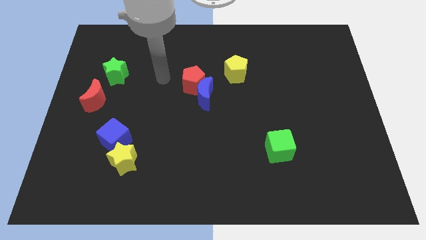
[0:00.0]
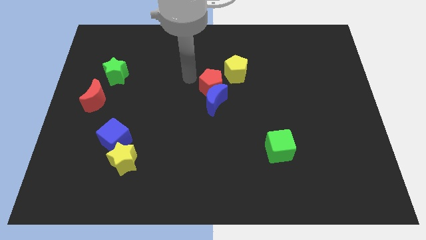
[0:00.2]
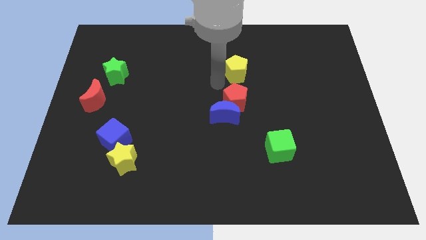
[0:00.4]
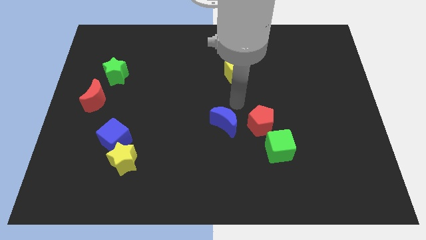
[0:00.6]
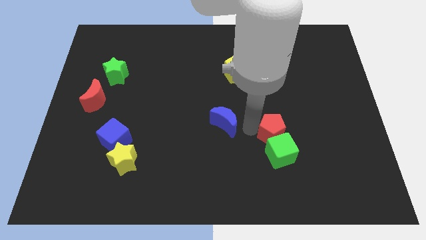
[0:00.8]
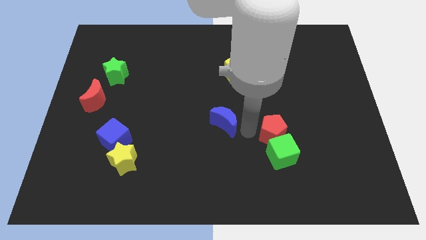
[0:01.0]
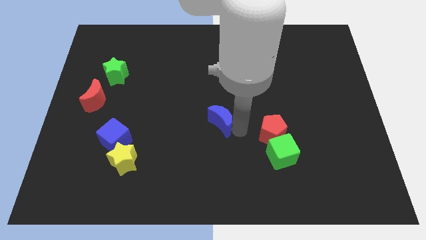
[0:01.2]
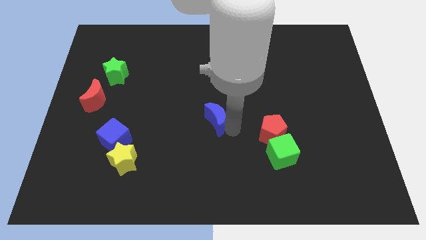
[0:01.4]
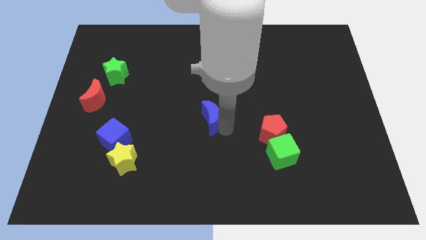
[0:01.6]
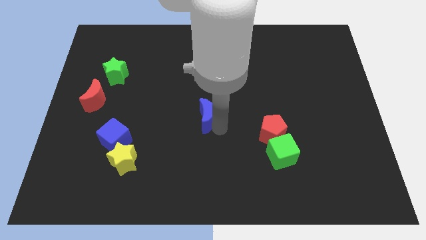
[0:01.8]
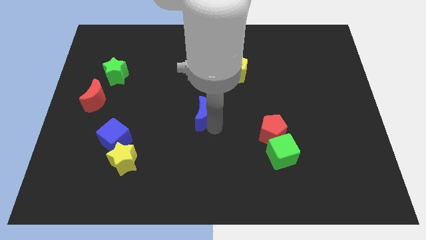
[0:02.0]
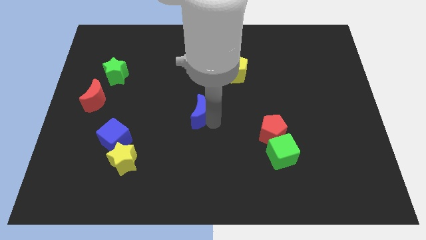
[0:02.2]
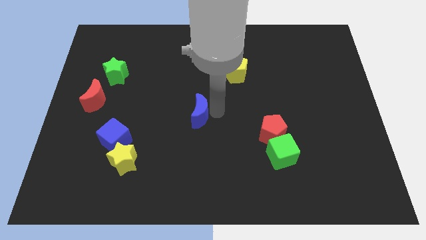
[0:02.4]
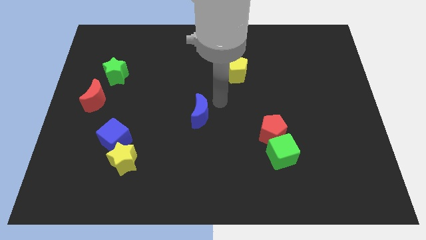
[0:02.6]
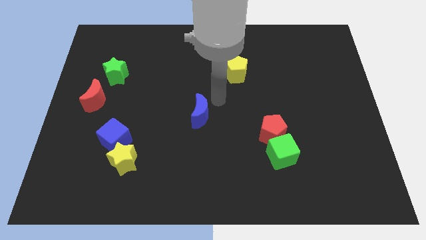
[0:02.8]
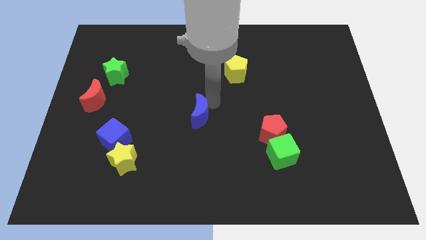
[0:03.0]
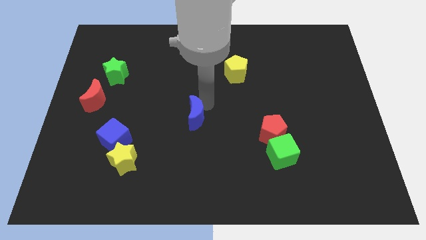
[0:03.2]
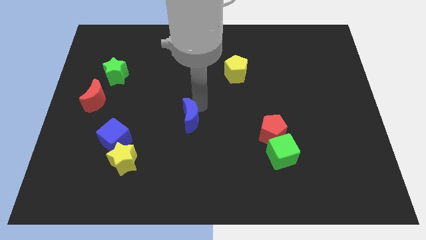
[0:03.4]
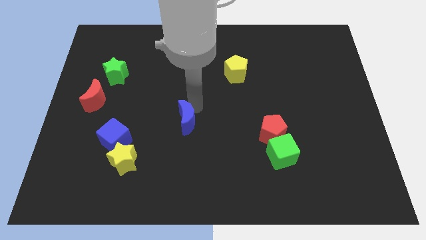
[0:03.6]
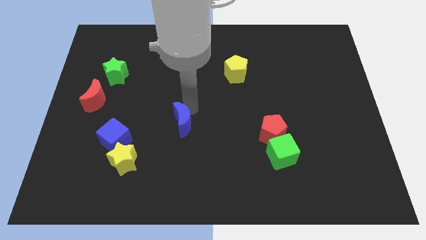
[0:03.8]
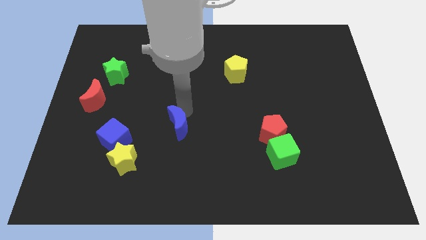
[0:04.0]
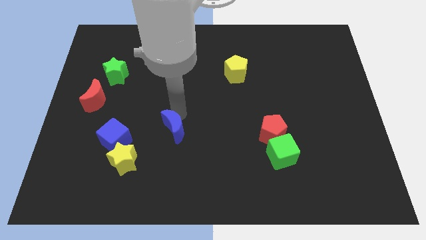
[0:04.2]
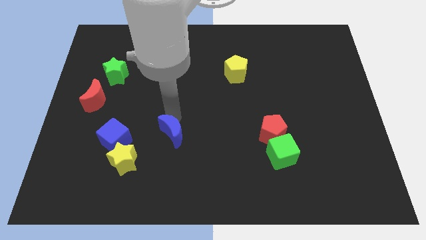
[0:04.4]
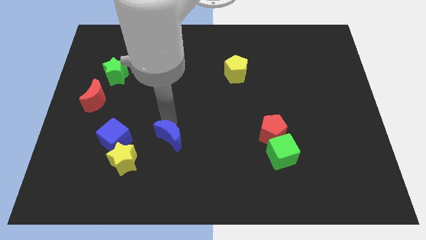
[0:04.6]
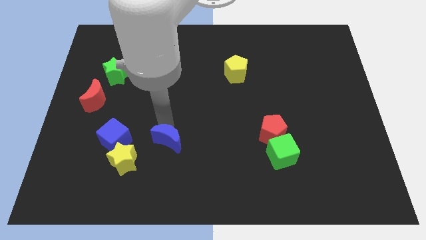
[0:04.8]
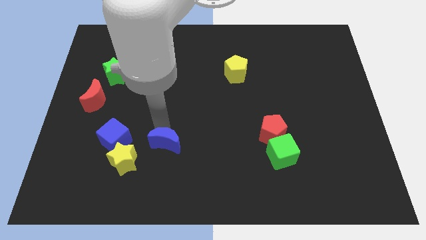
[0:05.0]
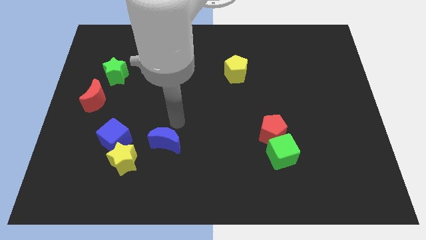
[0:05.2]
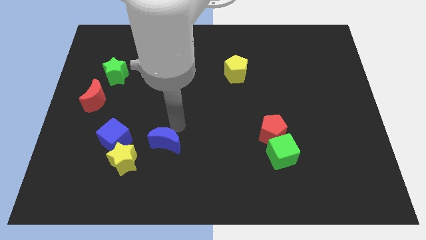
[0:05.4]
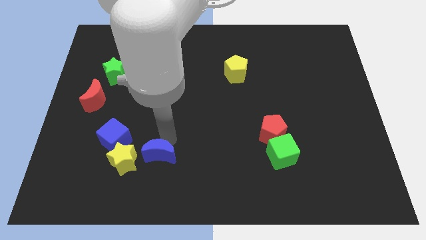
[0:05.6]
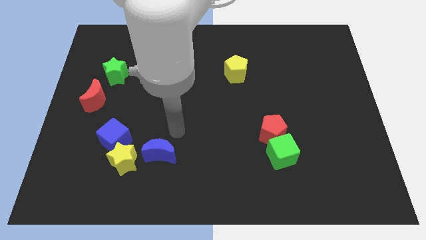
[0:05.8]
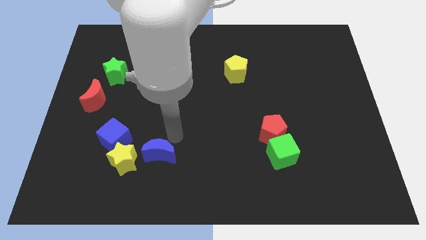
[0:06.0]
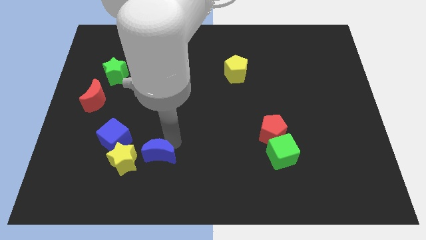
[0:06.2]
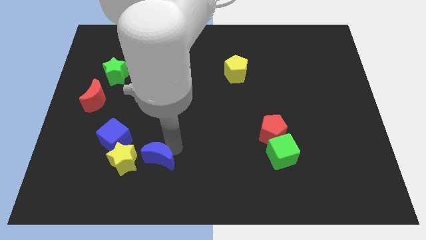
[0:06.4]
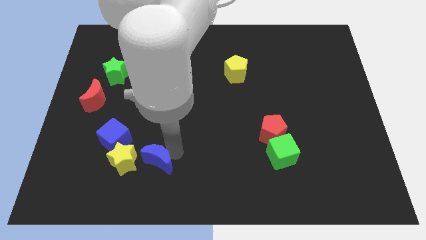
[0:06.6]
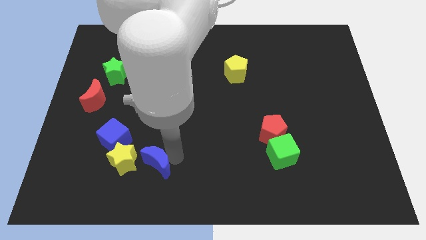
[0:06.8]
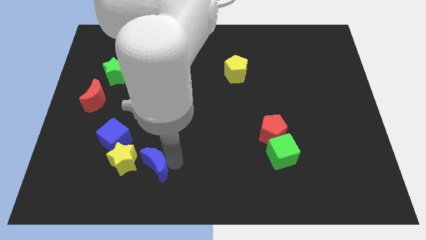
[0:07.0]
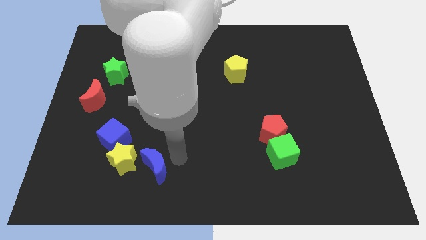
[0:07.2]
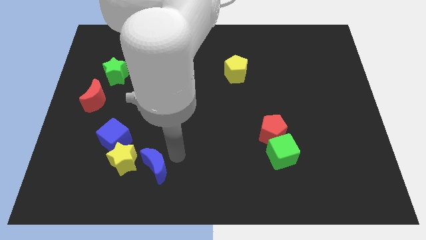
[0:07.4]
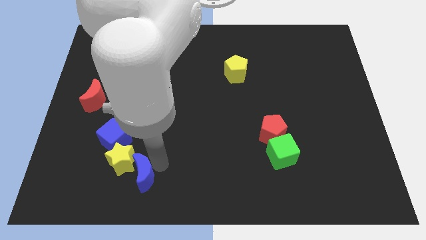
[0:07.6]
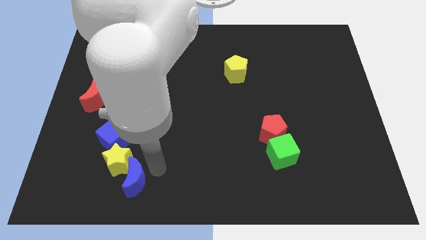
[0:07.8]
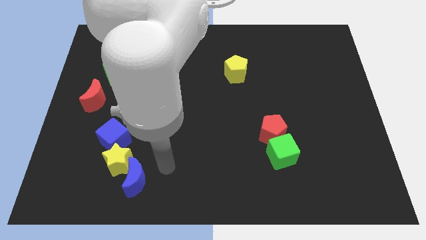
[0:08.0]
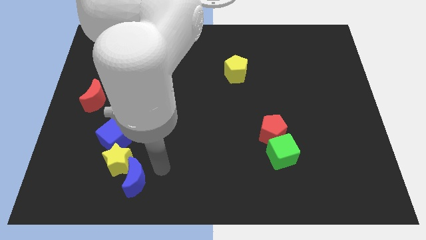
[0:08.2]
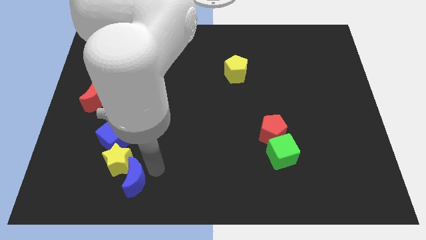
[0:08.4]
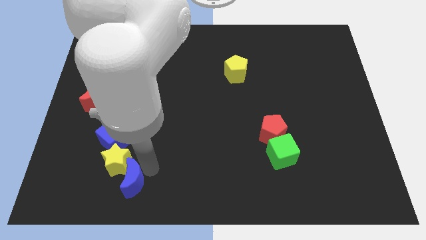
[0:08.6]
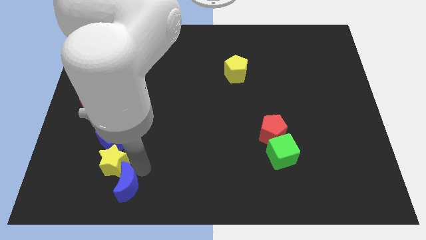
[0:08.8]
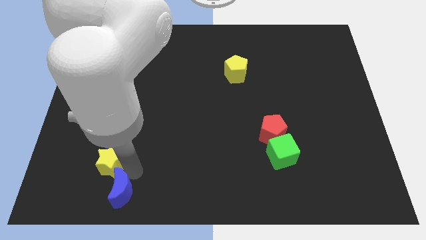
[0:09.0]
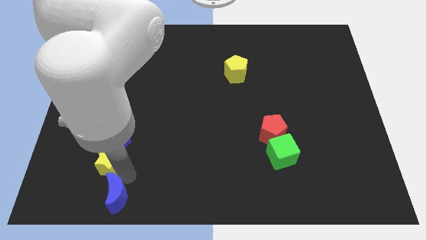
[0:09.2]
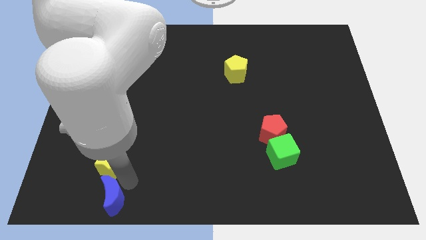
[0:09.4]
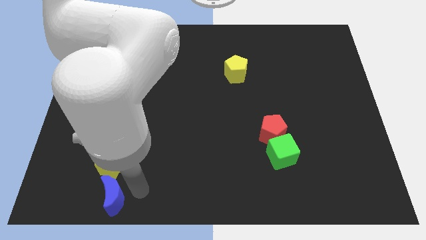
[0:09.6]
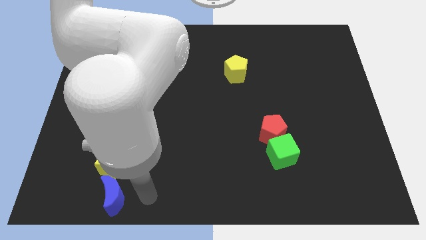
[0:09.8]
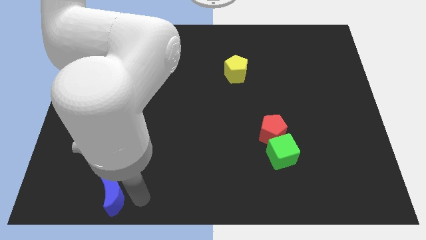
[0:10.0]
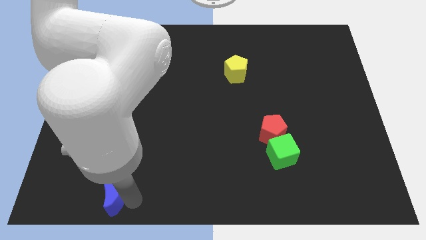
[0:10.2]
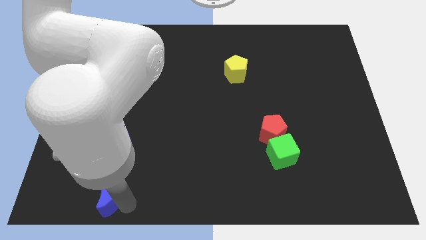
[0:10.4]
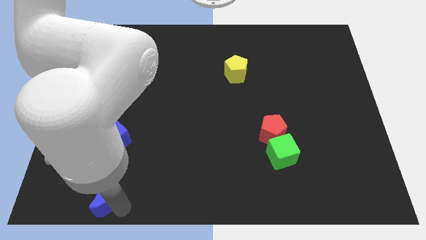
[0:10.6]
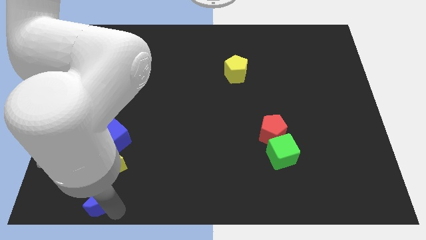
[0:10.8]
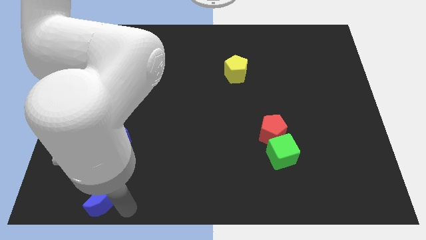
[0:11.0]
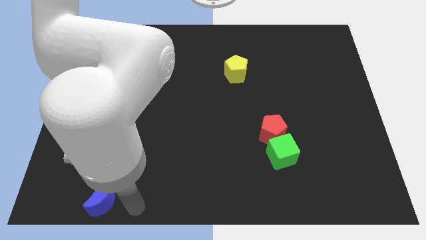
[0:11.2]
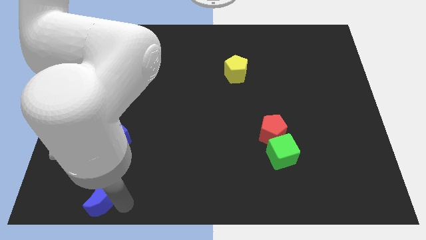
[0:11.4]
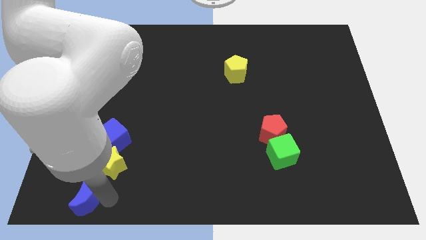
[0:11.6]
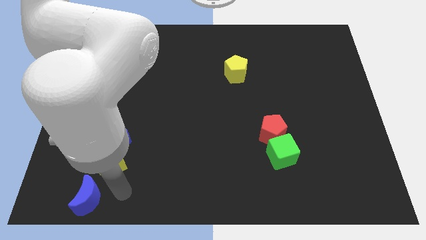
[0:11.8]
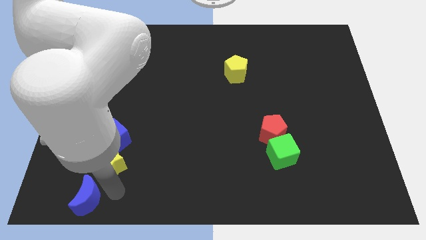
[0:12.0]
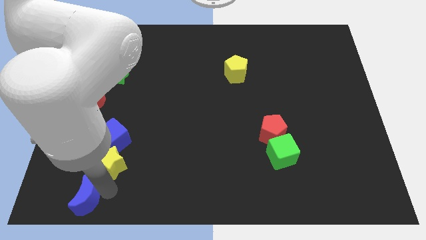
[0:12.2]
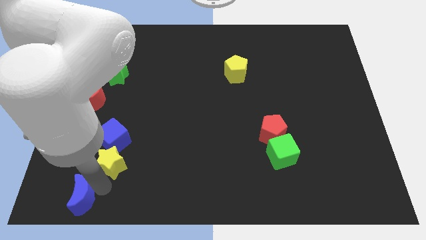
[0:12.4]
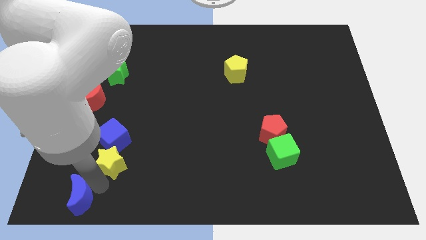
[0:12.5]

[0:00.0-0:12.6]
push the blue moon to the bottom left of the board
